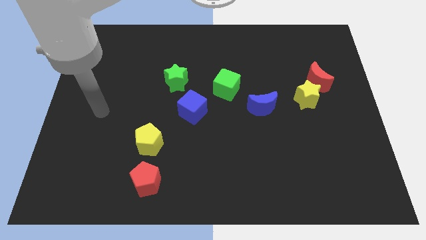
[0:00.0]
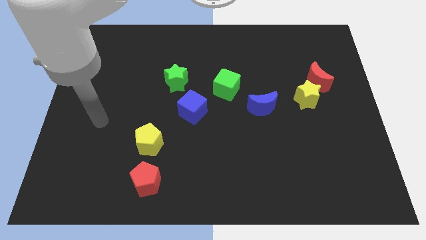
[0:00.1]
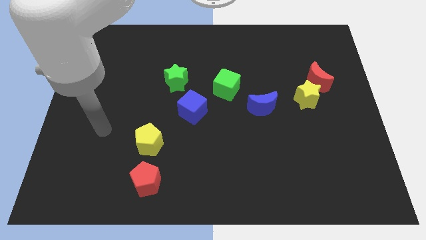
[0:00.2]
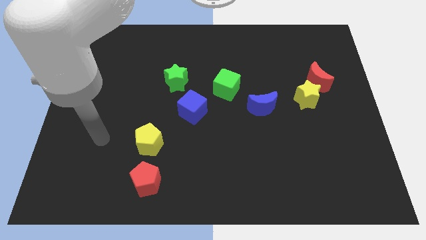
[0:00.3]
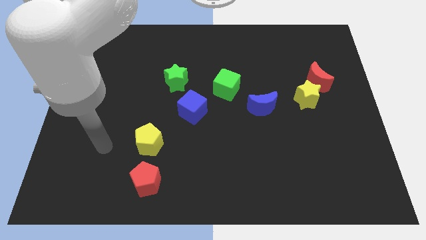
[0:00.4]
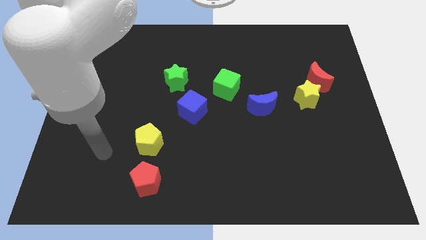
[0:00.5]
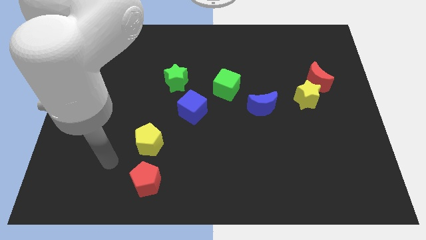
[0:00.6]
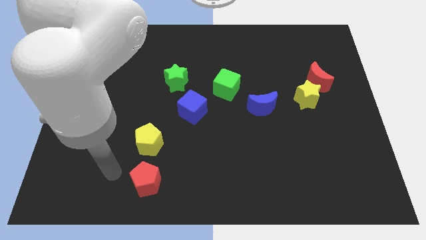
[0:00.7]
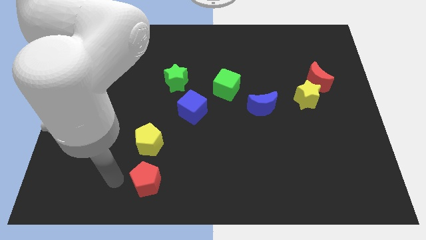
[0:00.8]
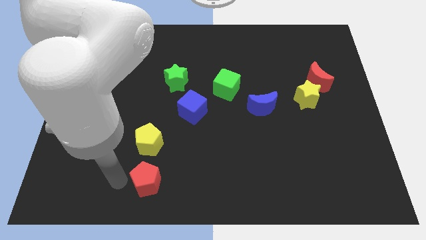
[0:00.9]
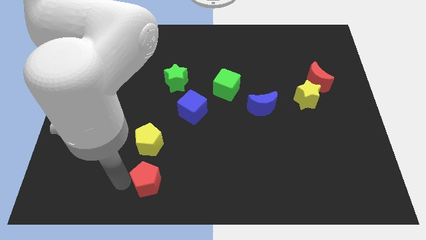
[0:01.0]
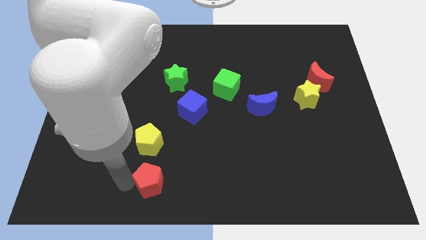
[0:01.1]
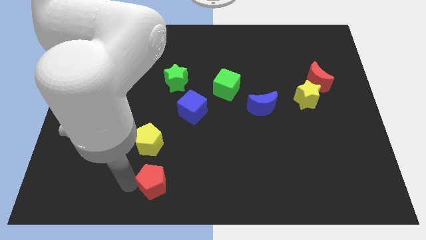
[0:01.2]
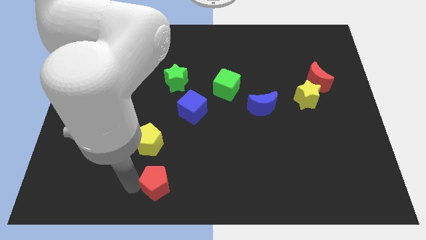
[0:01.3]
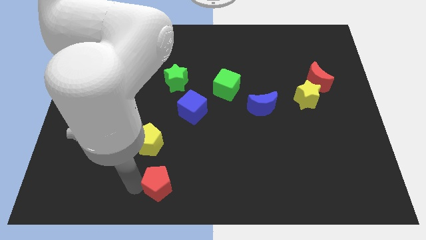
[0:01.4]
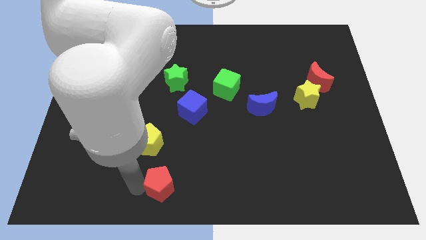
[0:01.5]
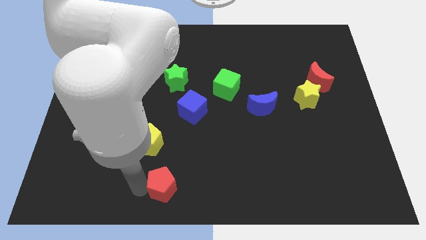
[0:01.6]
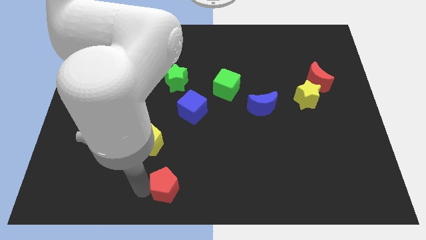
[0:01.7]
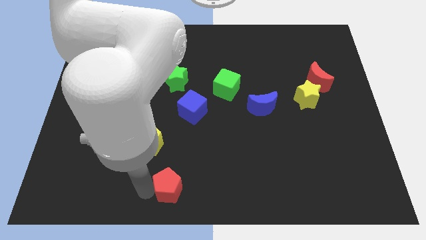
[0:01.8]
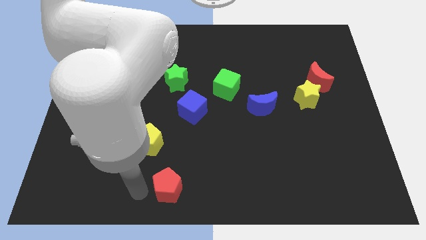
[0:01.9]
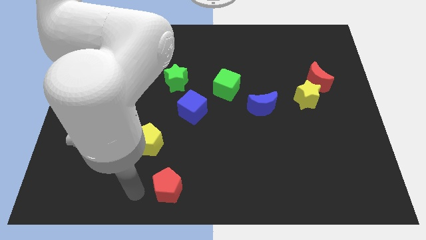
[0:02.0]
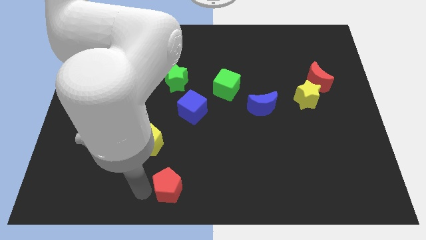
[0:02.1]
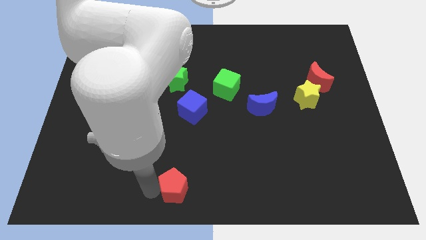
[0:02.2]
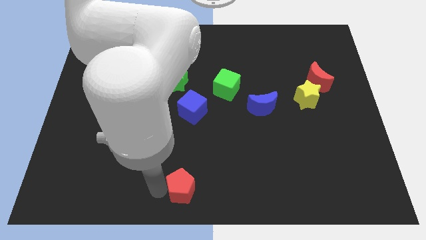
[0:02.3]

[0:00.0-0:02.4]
move the red pentagon right a little bit

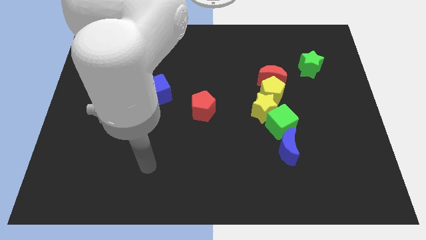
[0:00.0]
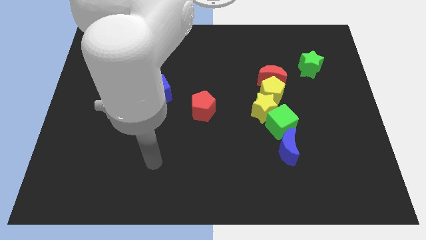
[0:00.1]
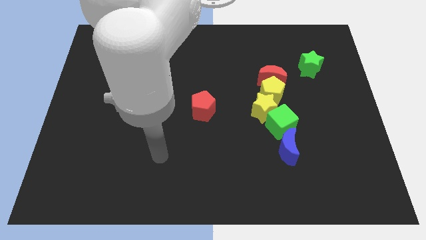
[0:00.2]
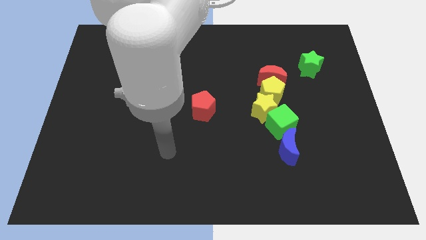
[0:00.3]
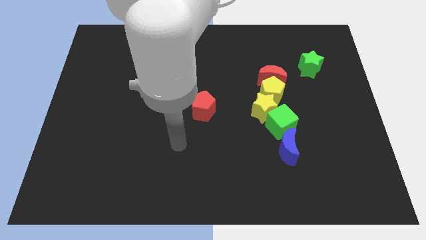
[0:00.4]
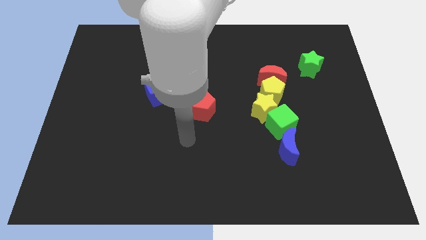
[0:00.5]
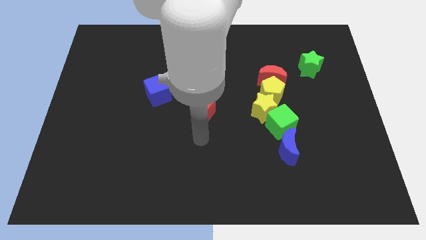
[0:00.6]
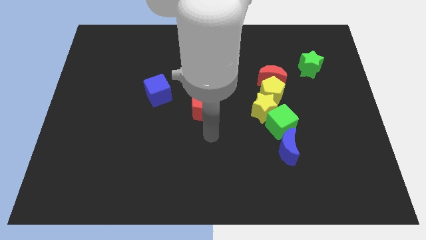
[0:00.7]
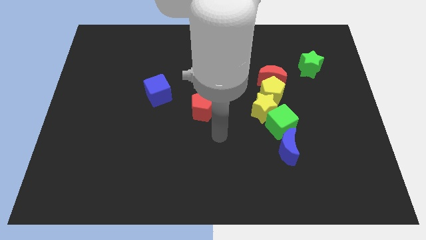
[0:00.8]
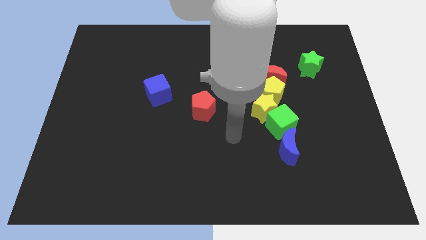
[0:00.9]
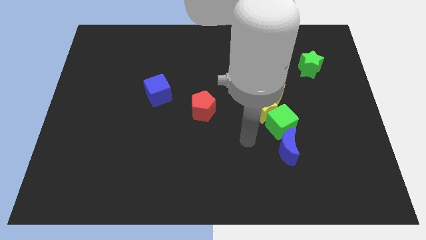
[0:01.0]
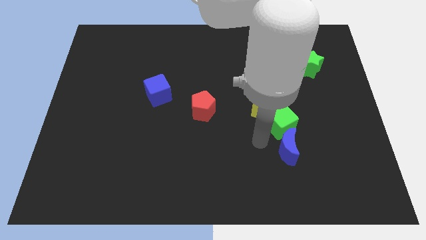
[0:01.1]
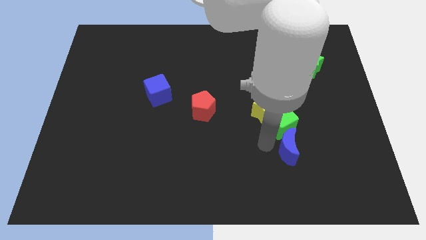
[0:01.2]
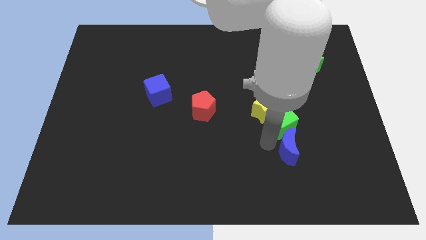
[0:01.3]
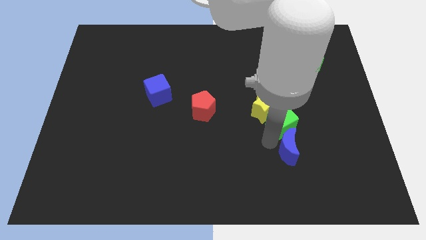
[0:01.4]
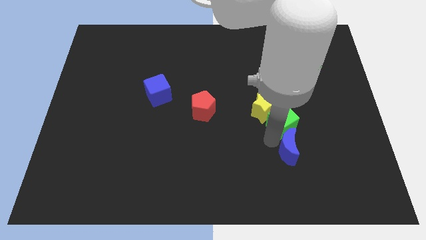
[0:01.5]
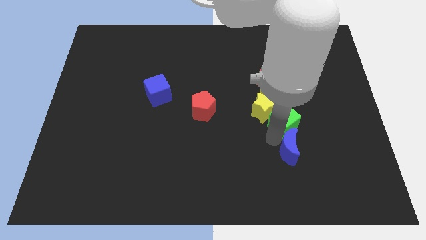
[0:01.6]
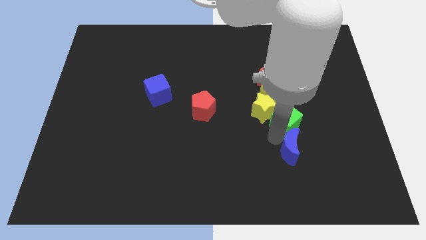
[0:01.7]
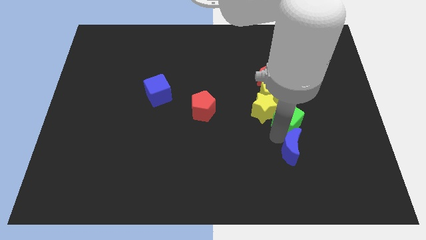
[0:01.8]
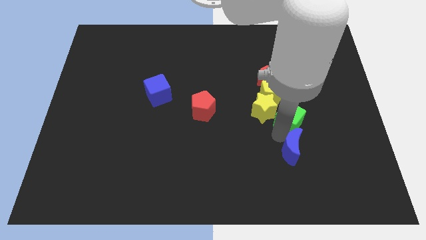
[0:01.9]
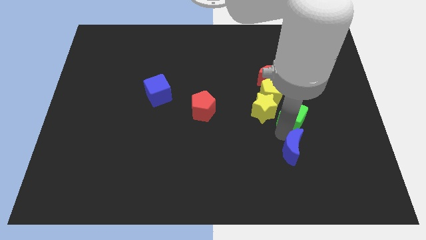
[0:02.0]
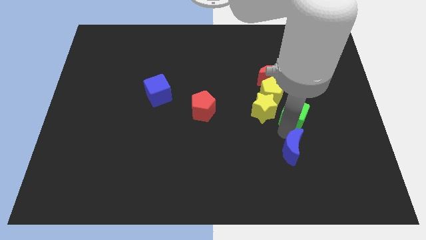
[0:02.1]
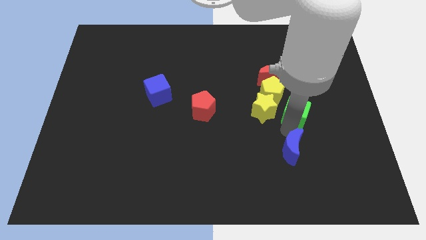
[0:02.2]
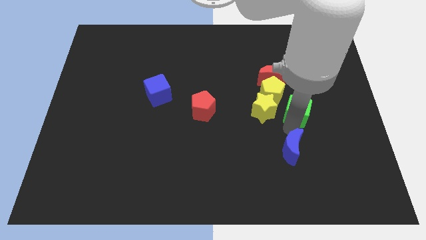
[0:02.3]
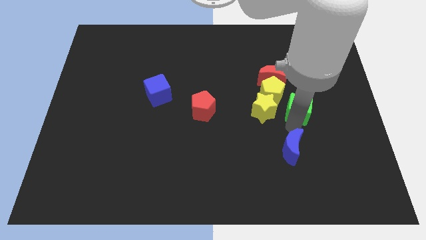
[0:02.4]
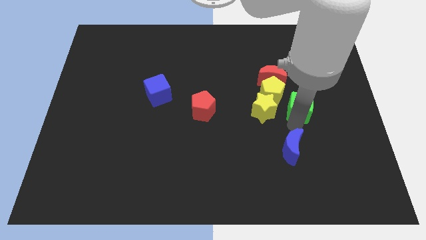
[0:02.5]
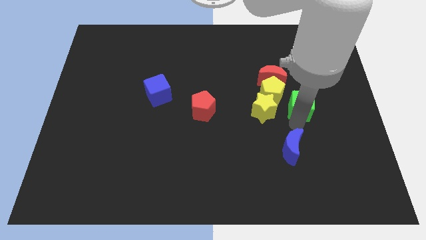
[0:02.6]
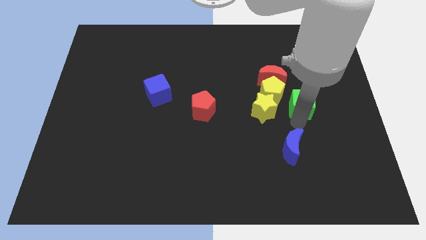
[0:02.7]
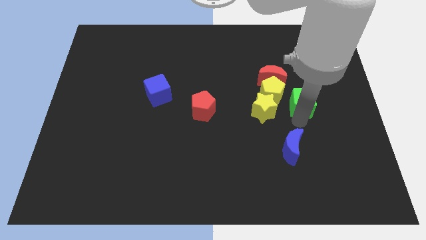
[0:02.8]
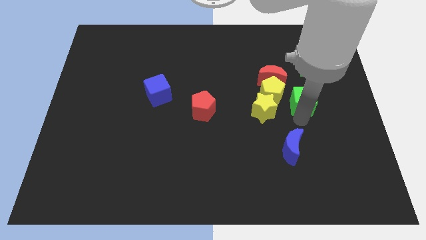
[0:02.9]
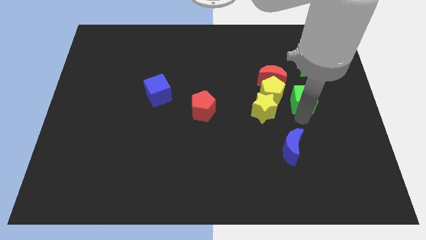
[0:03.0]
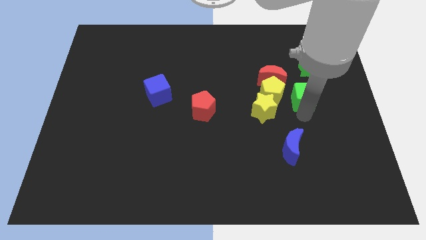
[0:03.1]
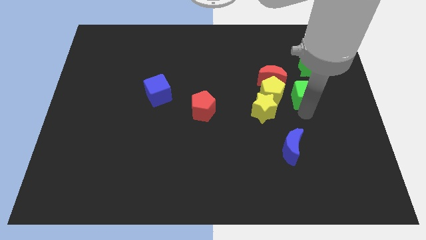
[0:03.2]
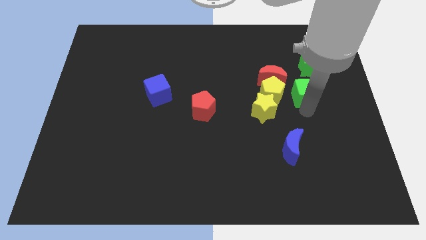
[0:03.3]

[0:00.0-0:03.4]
slightly slide the green cube up

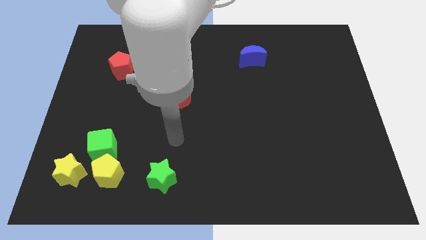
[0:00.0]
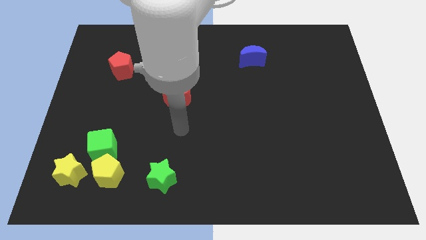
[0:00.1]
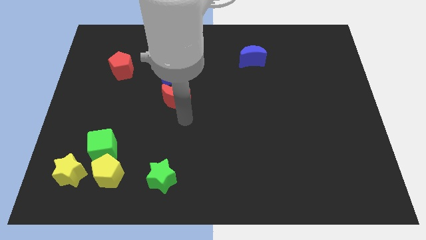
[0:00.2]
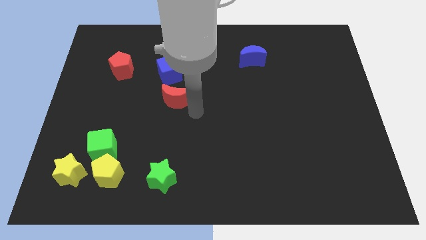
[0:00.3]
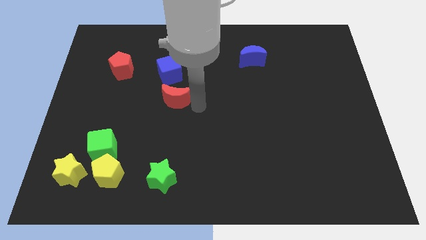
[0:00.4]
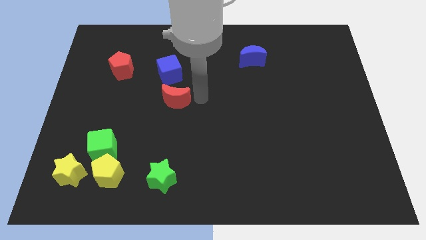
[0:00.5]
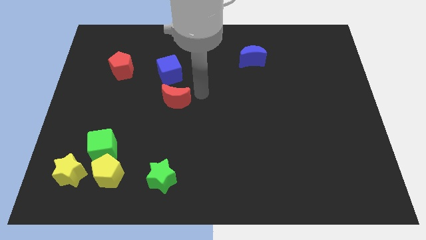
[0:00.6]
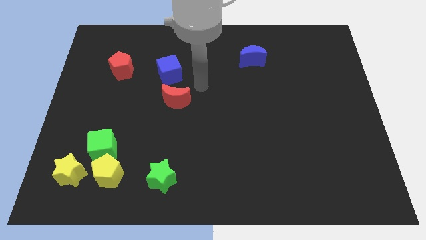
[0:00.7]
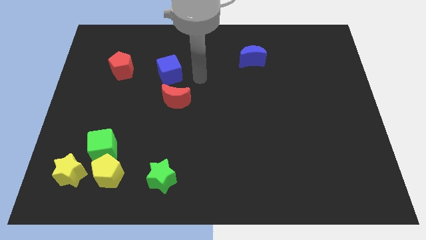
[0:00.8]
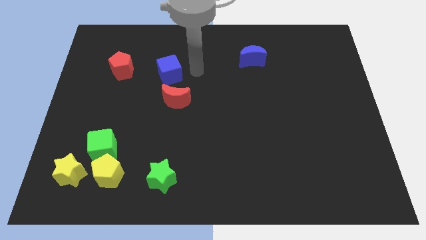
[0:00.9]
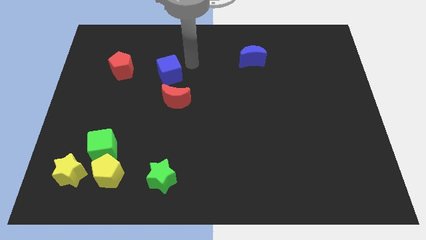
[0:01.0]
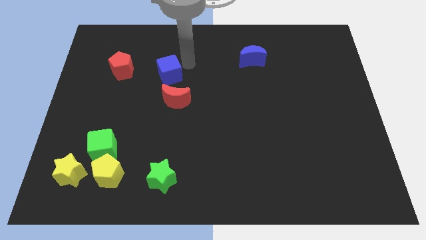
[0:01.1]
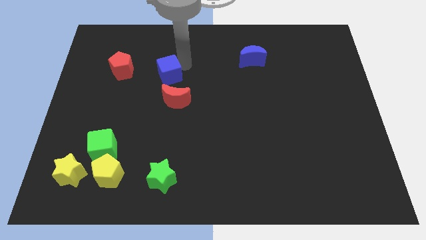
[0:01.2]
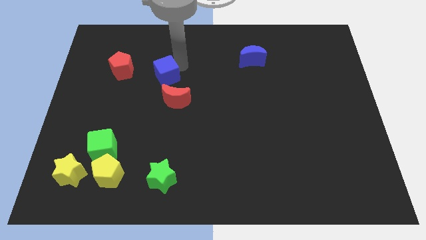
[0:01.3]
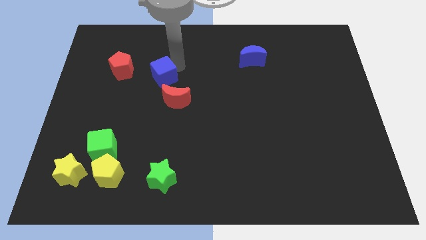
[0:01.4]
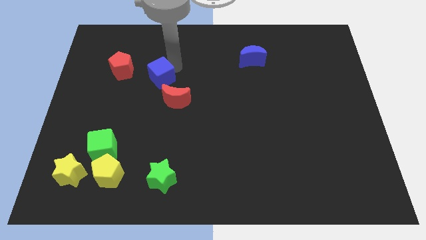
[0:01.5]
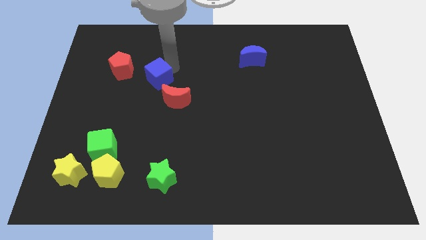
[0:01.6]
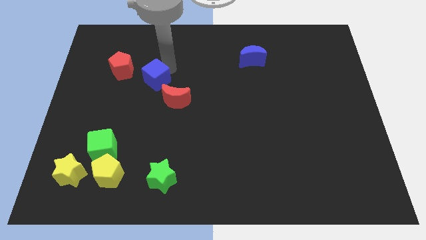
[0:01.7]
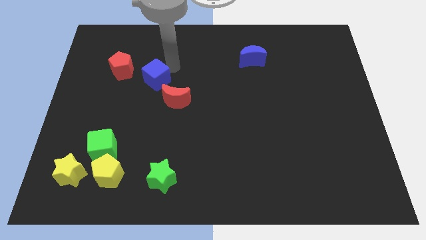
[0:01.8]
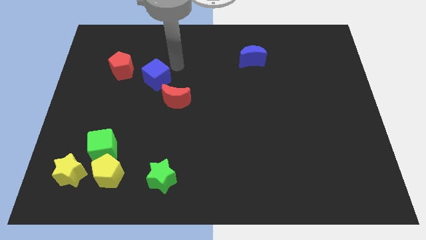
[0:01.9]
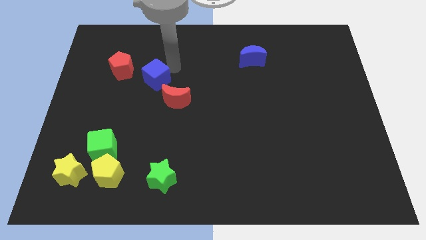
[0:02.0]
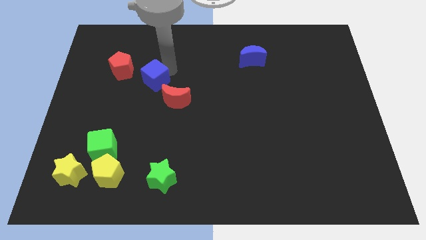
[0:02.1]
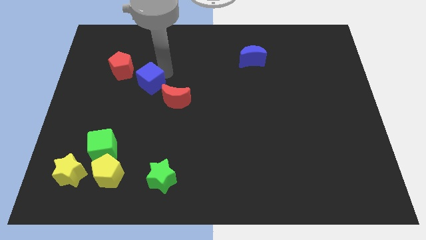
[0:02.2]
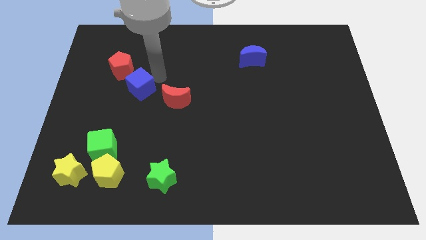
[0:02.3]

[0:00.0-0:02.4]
slightly move the blue cube downwards and then left
